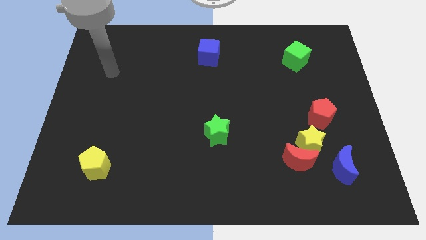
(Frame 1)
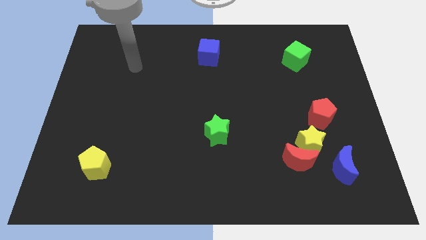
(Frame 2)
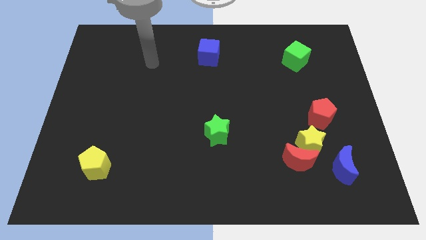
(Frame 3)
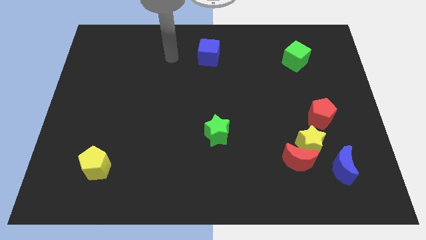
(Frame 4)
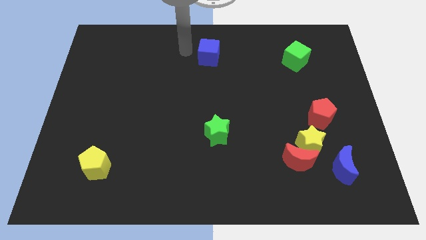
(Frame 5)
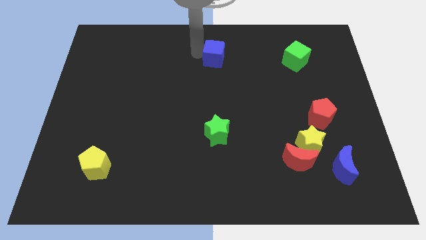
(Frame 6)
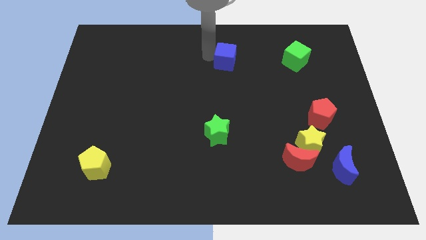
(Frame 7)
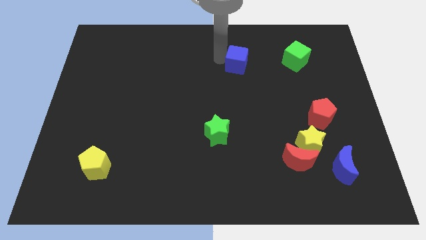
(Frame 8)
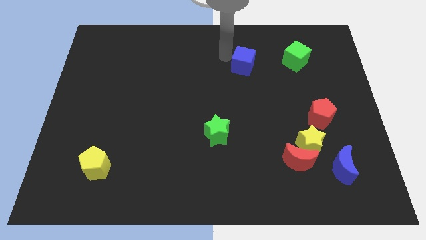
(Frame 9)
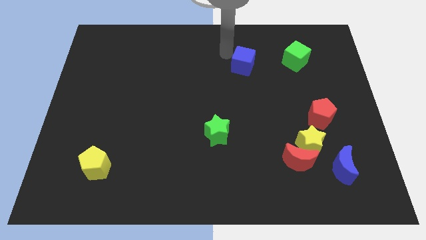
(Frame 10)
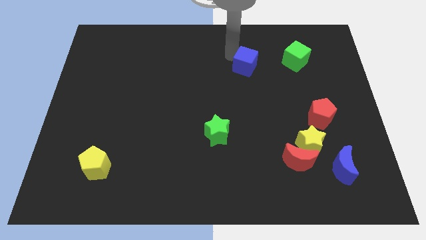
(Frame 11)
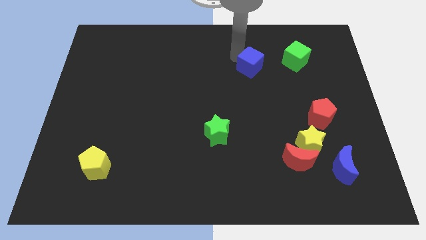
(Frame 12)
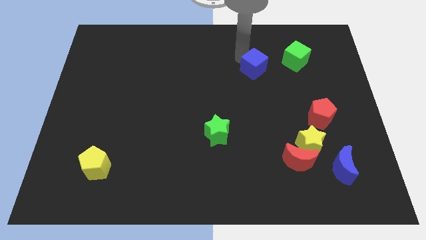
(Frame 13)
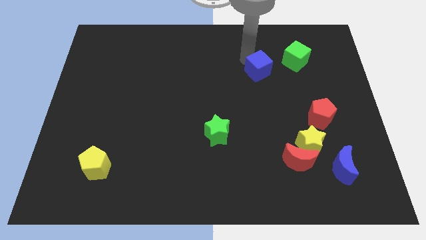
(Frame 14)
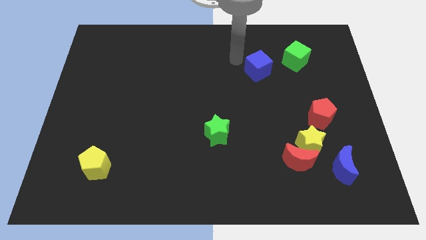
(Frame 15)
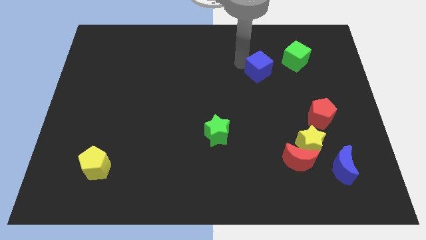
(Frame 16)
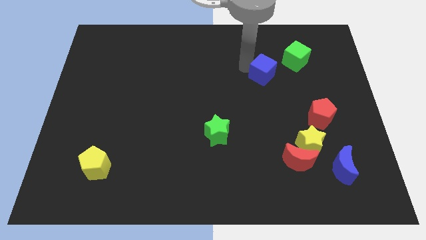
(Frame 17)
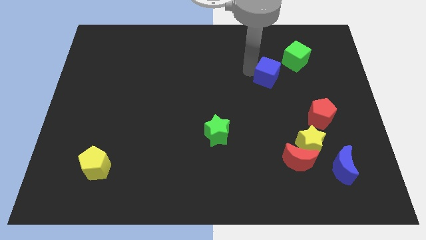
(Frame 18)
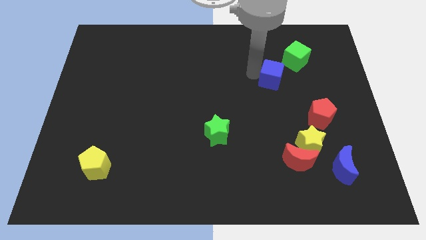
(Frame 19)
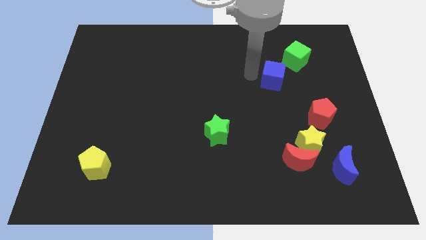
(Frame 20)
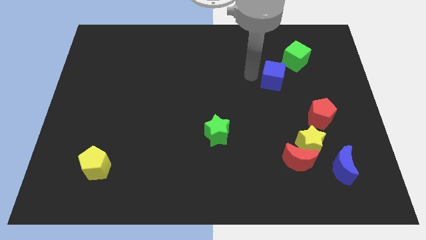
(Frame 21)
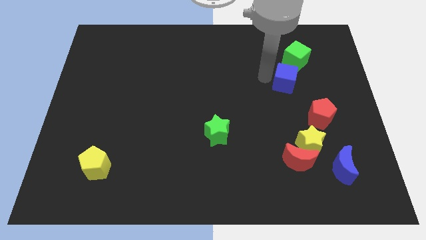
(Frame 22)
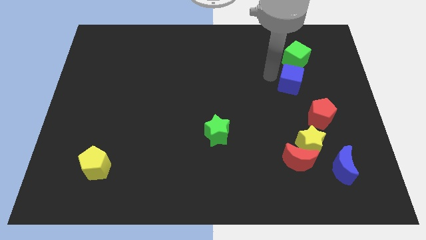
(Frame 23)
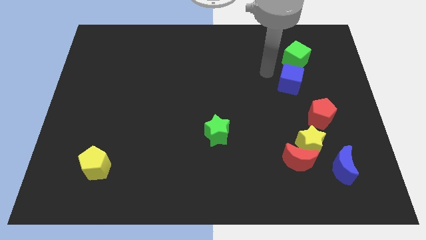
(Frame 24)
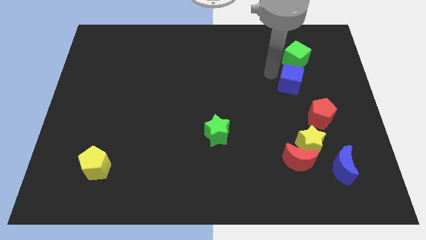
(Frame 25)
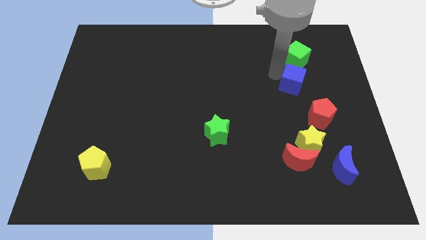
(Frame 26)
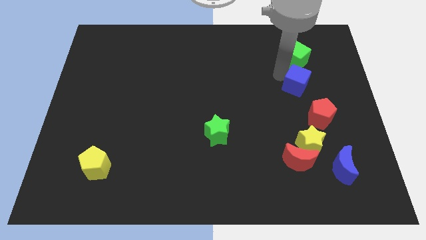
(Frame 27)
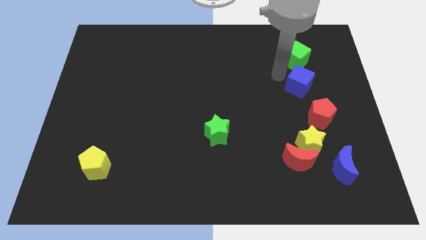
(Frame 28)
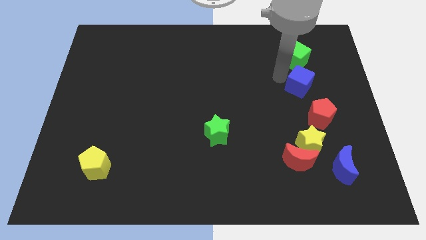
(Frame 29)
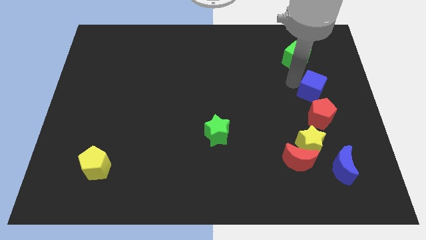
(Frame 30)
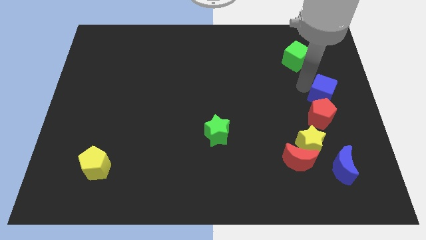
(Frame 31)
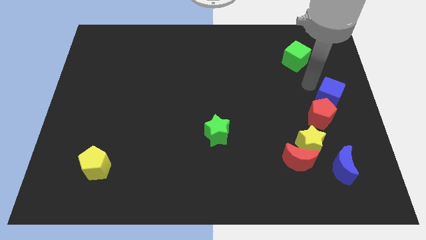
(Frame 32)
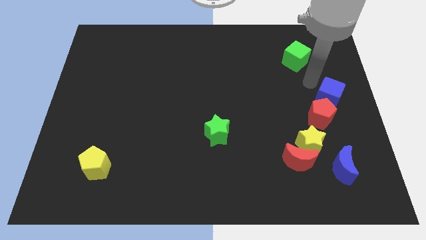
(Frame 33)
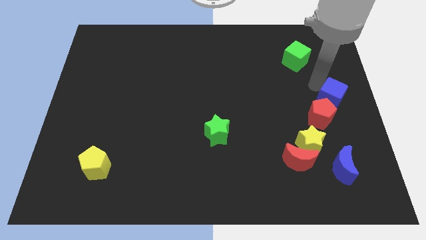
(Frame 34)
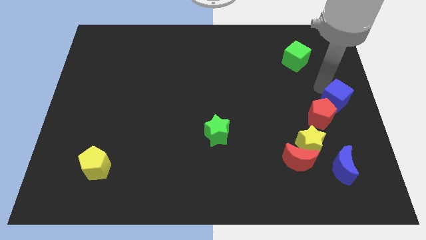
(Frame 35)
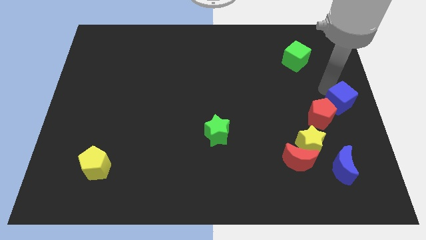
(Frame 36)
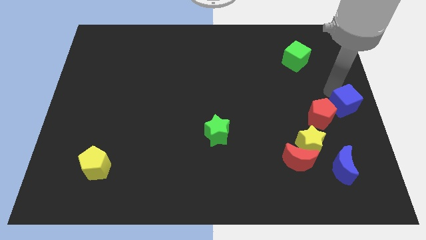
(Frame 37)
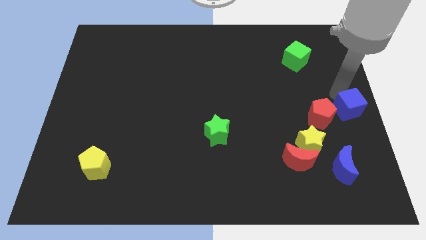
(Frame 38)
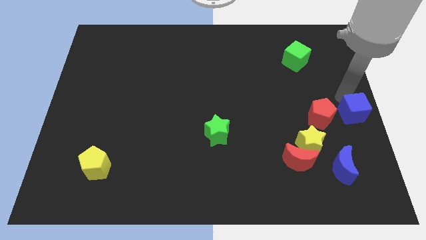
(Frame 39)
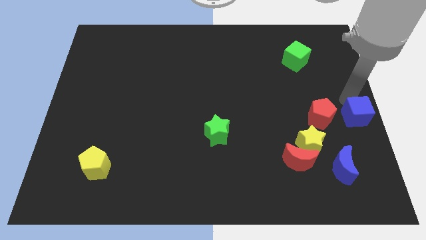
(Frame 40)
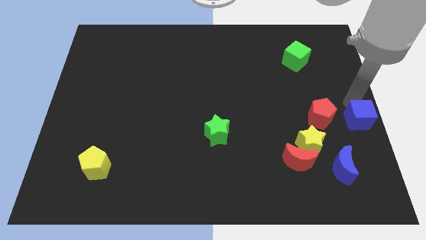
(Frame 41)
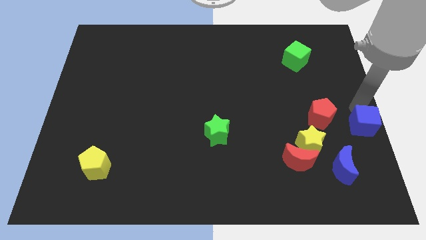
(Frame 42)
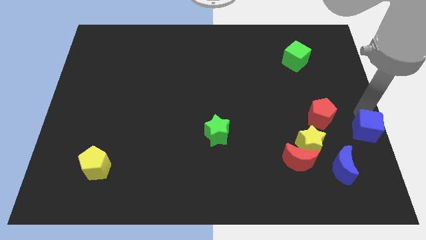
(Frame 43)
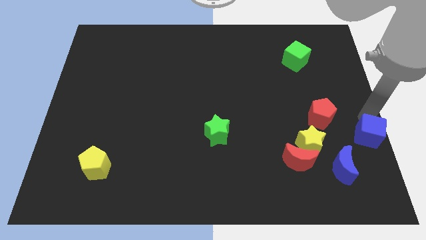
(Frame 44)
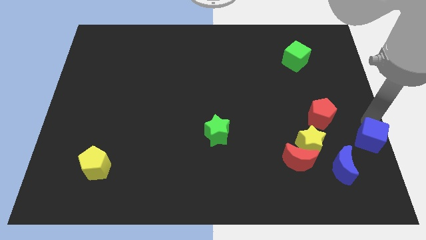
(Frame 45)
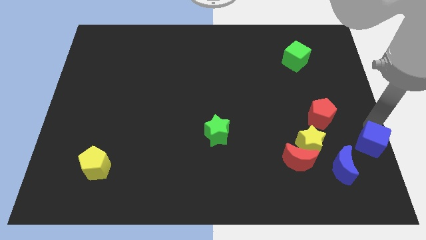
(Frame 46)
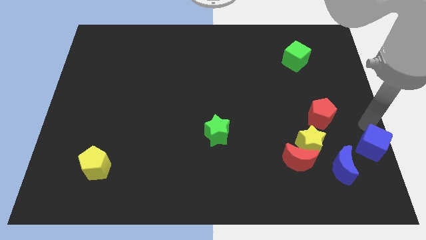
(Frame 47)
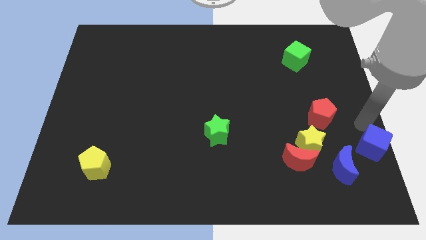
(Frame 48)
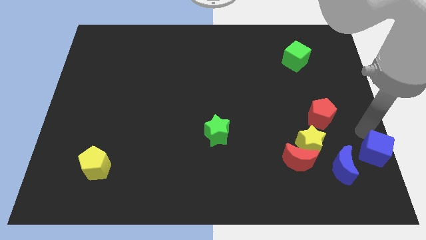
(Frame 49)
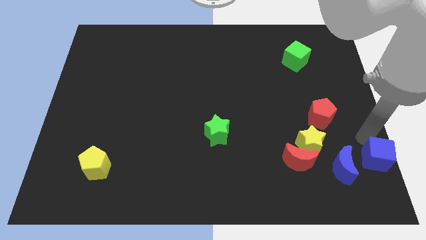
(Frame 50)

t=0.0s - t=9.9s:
slide the blue cube to the lower right corner

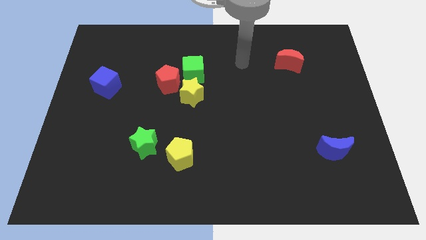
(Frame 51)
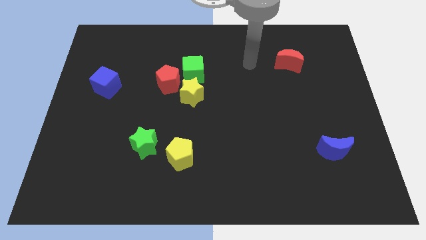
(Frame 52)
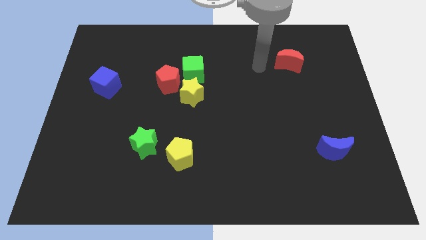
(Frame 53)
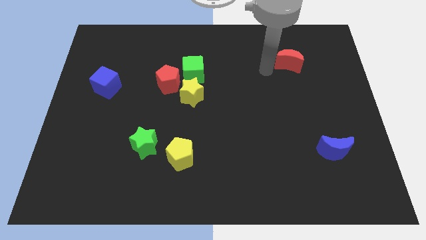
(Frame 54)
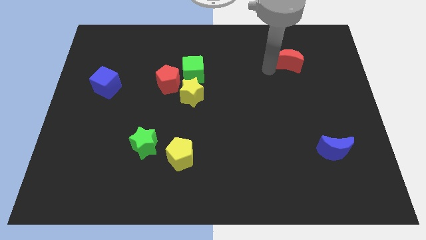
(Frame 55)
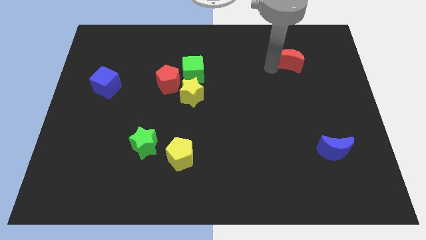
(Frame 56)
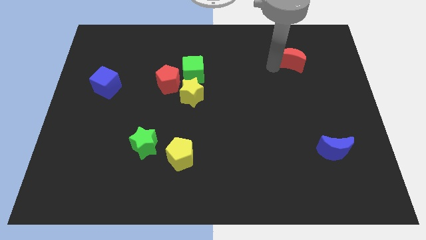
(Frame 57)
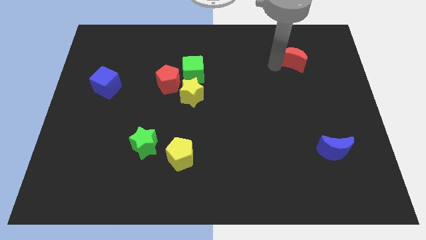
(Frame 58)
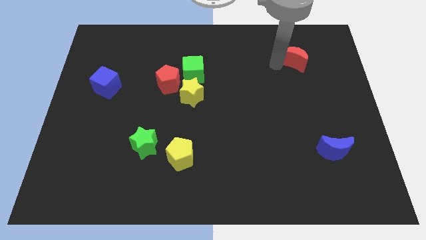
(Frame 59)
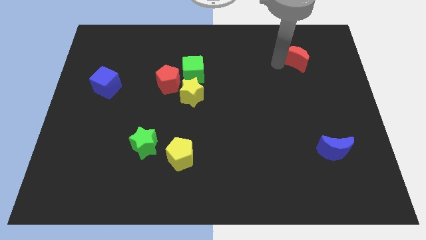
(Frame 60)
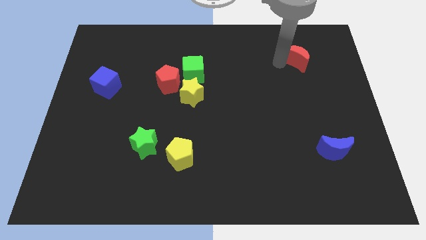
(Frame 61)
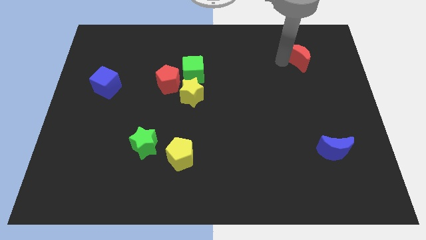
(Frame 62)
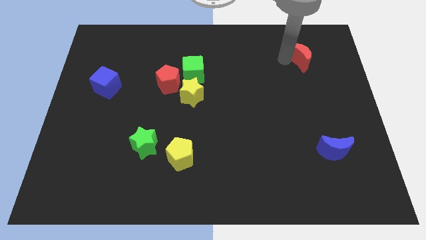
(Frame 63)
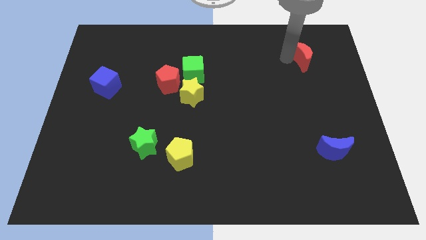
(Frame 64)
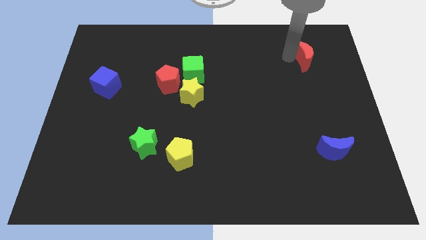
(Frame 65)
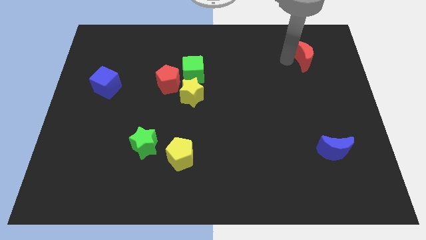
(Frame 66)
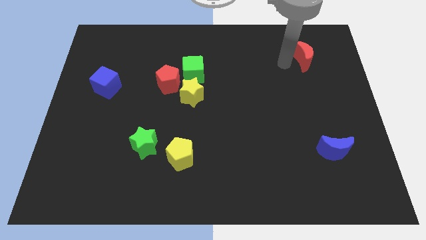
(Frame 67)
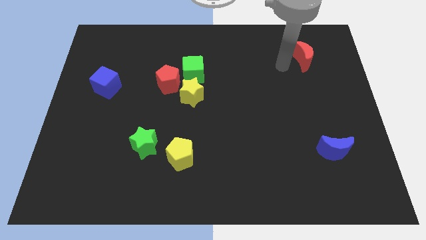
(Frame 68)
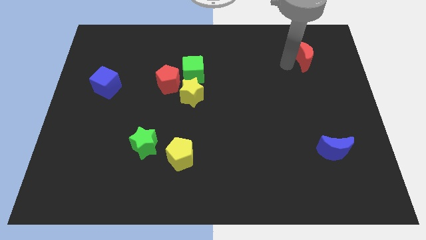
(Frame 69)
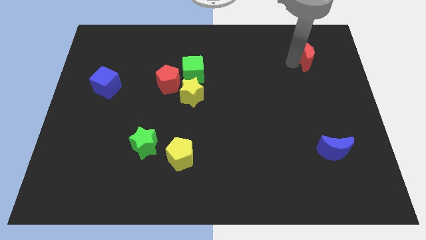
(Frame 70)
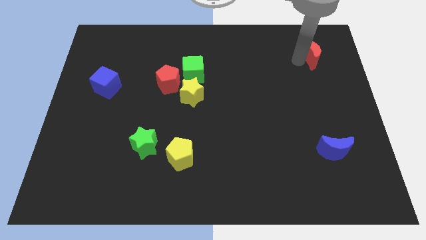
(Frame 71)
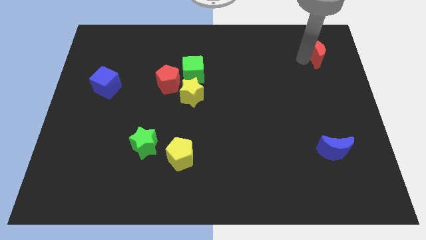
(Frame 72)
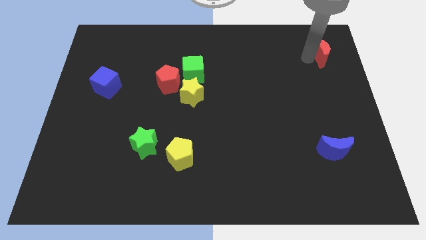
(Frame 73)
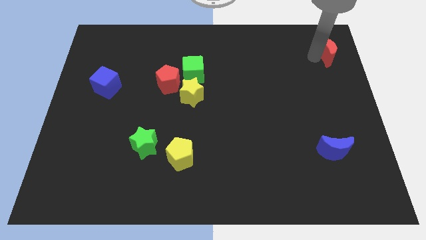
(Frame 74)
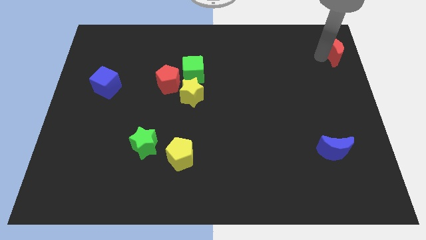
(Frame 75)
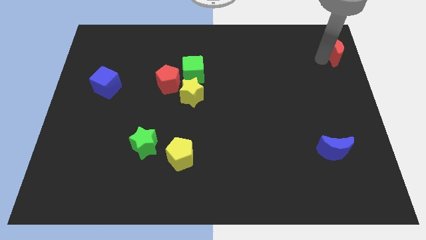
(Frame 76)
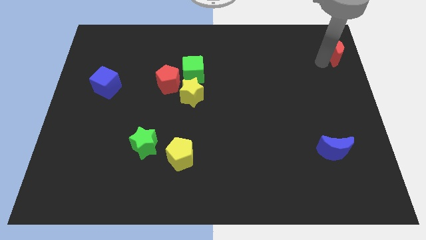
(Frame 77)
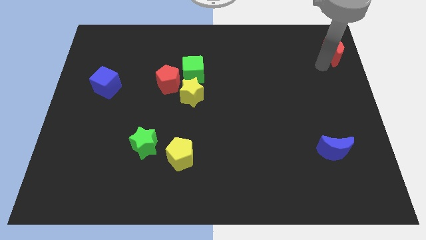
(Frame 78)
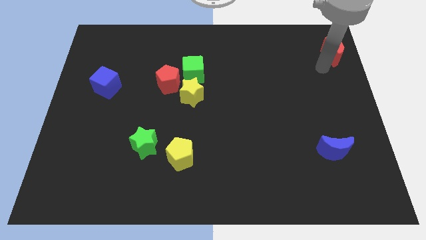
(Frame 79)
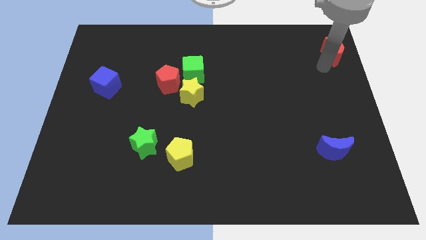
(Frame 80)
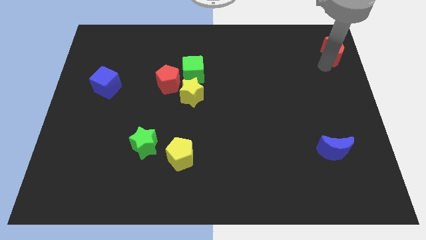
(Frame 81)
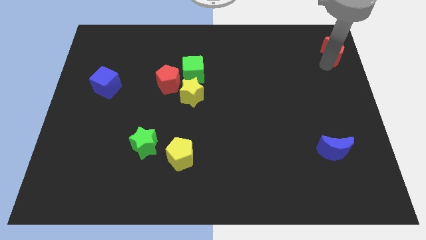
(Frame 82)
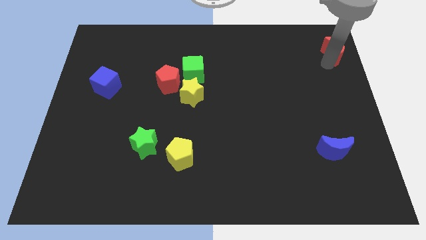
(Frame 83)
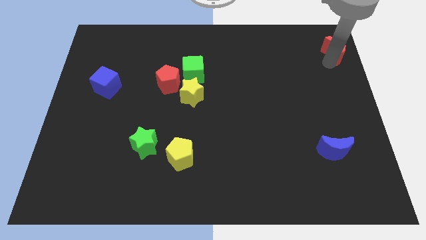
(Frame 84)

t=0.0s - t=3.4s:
slide the red moon to the top right
